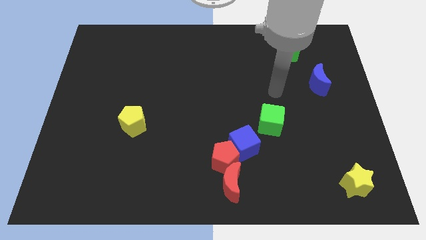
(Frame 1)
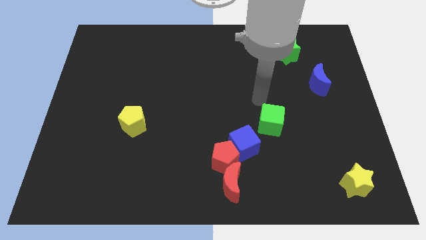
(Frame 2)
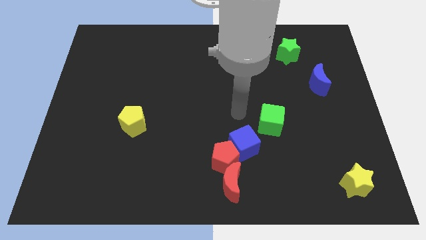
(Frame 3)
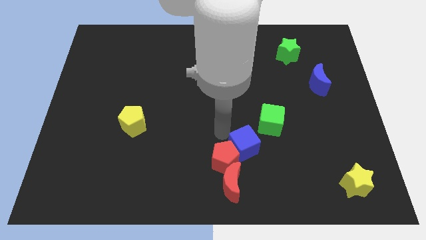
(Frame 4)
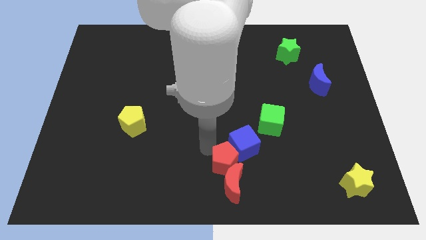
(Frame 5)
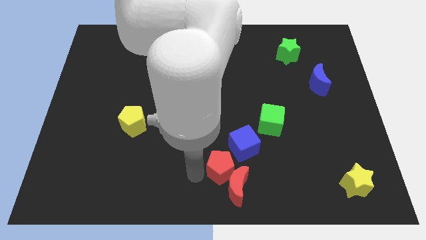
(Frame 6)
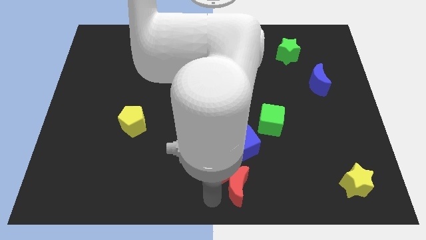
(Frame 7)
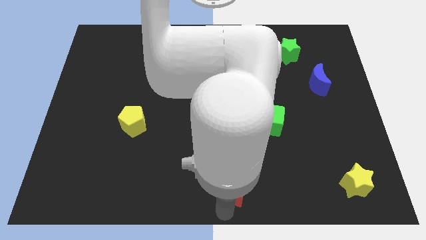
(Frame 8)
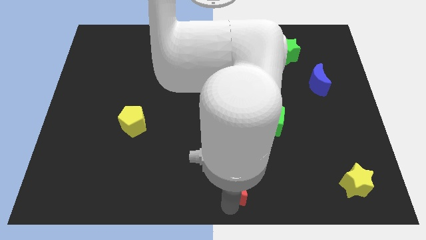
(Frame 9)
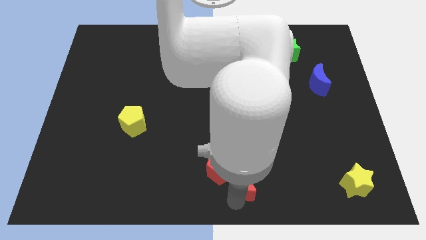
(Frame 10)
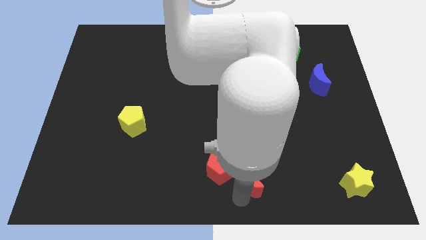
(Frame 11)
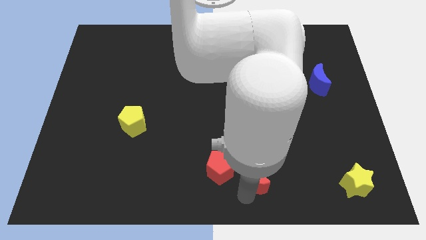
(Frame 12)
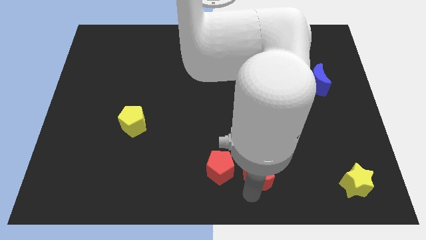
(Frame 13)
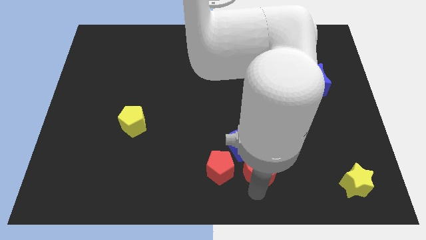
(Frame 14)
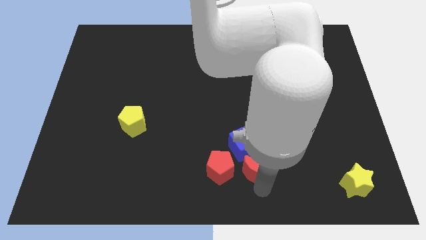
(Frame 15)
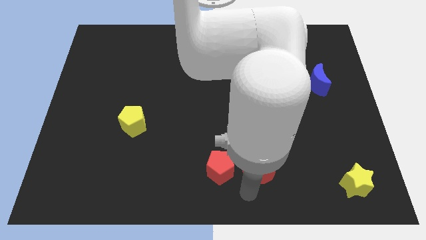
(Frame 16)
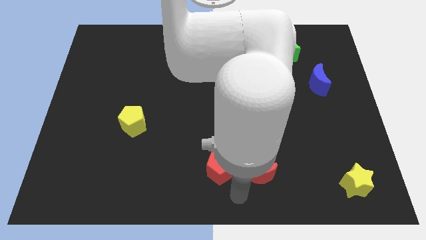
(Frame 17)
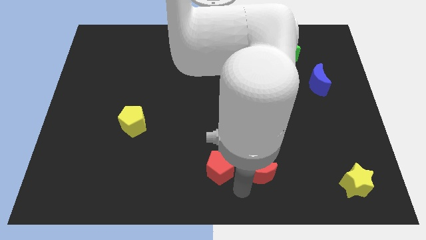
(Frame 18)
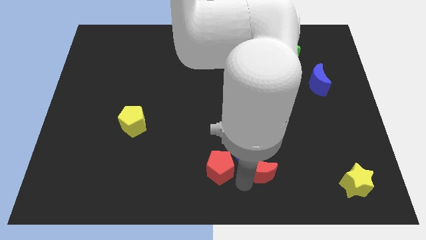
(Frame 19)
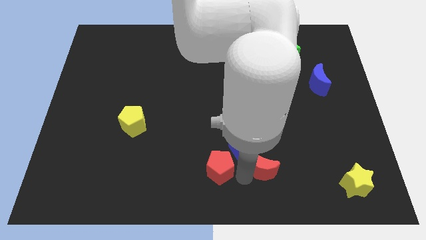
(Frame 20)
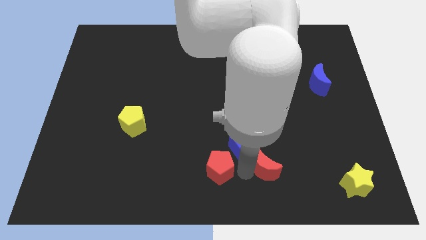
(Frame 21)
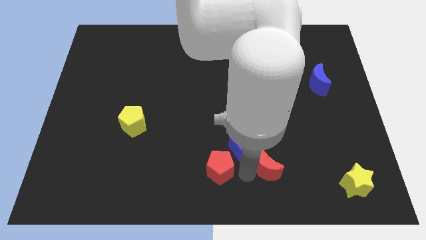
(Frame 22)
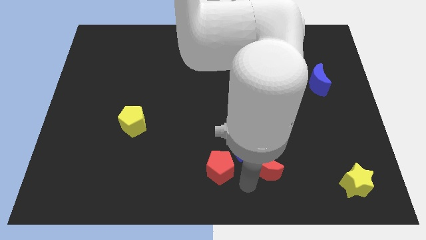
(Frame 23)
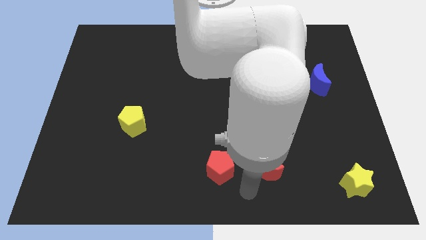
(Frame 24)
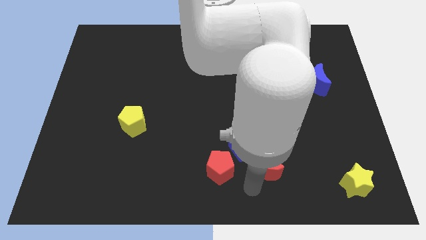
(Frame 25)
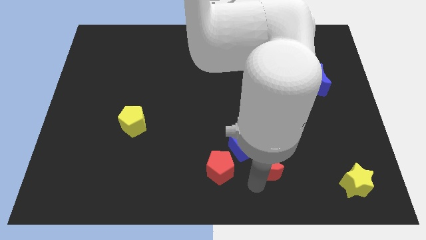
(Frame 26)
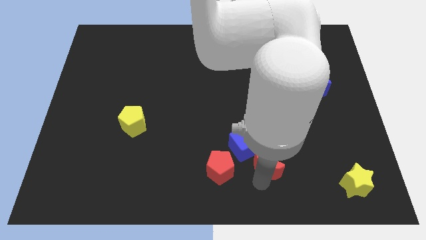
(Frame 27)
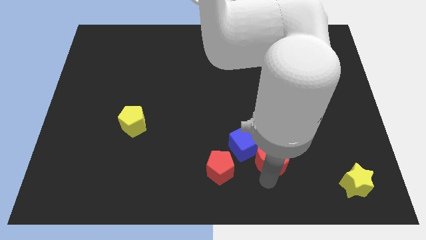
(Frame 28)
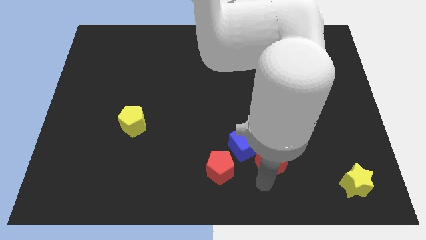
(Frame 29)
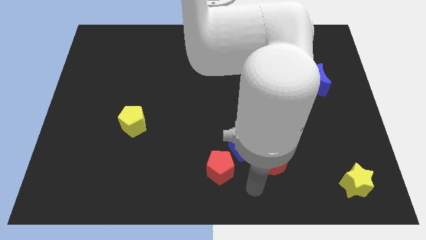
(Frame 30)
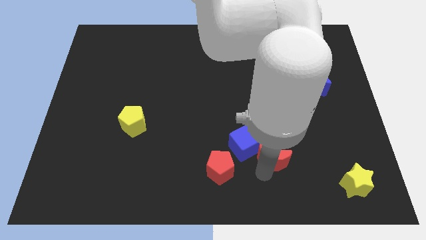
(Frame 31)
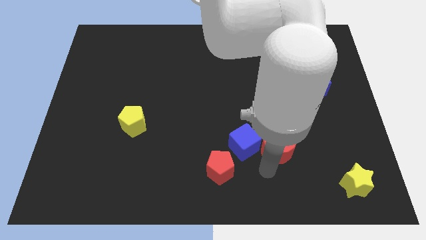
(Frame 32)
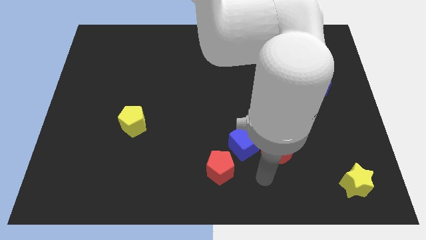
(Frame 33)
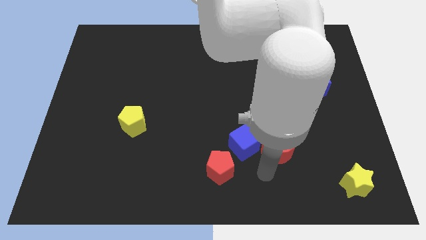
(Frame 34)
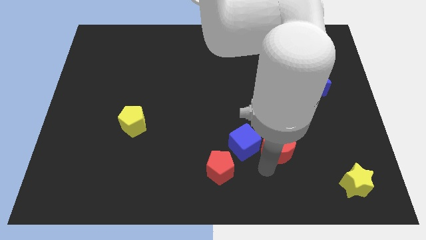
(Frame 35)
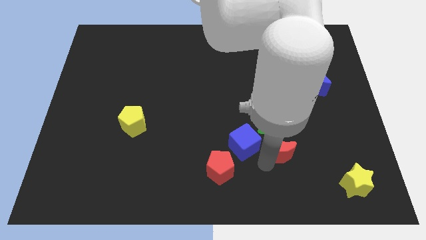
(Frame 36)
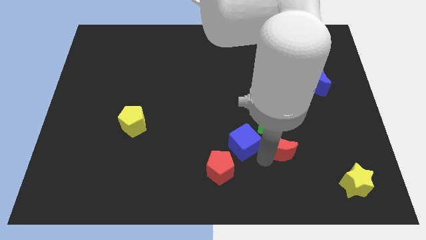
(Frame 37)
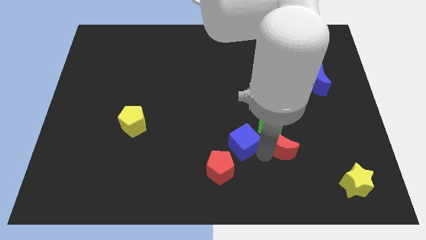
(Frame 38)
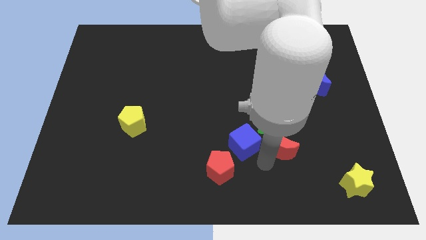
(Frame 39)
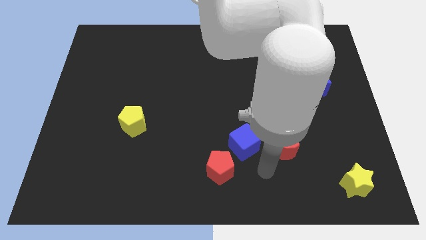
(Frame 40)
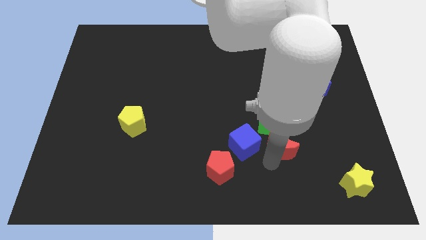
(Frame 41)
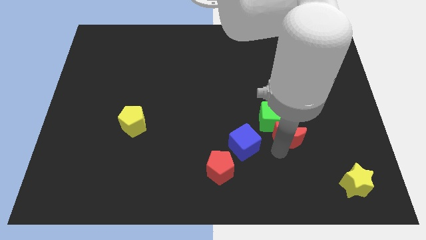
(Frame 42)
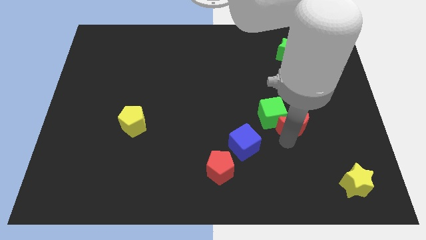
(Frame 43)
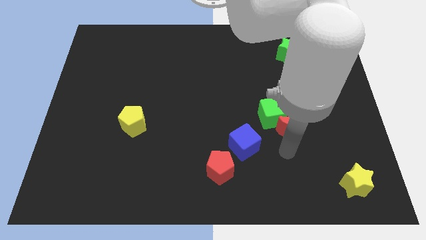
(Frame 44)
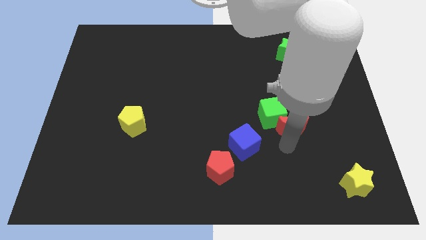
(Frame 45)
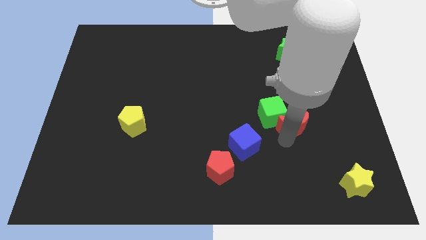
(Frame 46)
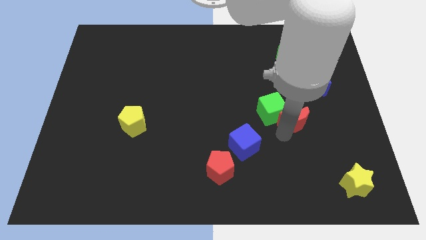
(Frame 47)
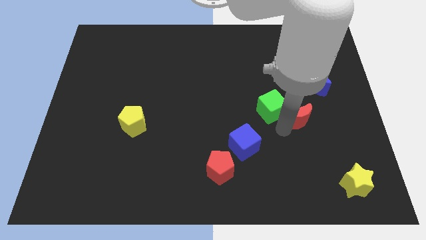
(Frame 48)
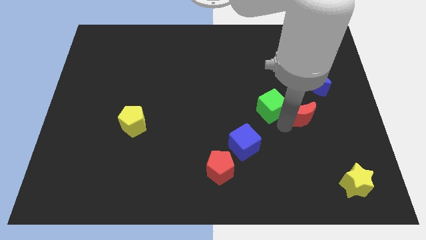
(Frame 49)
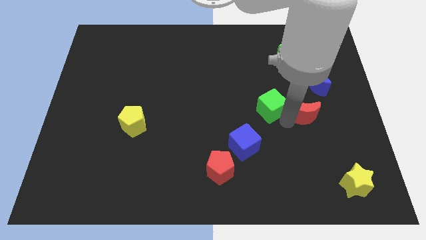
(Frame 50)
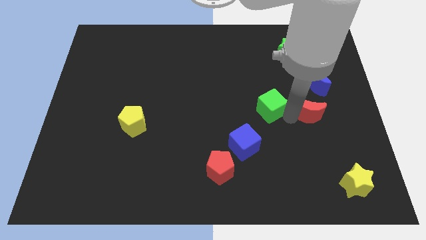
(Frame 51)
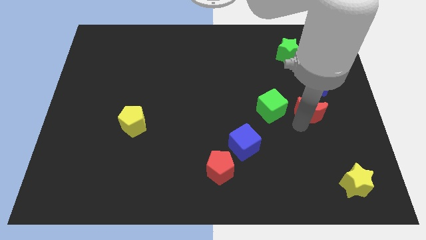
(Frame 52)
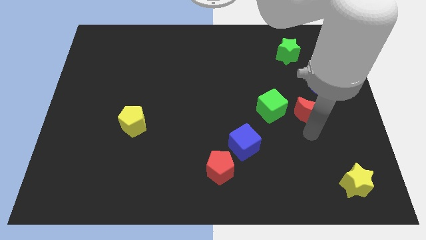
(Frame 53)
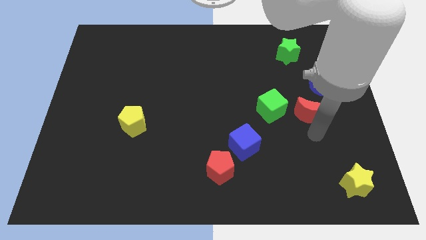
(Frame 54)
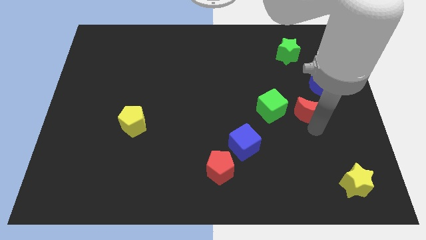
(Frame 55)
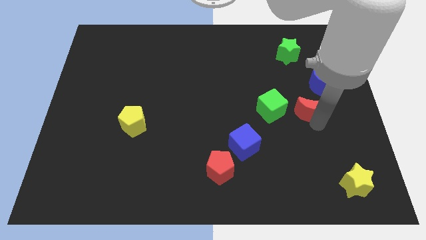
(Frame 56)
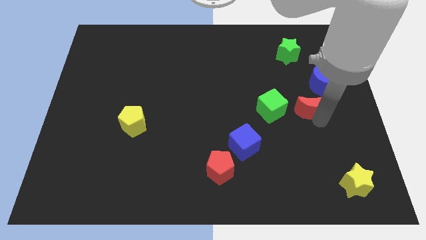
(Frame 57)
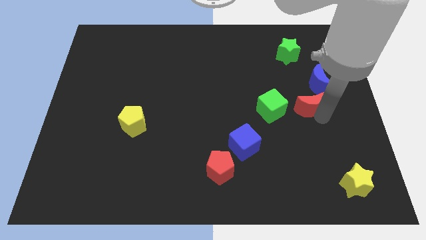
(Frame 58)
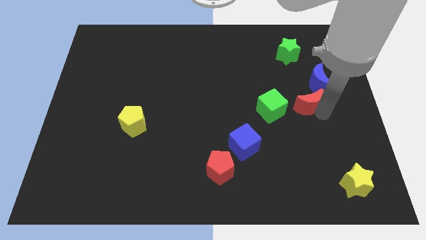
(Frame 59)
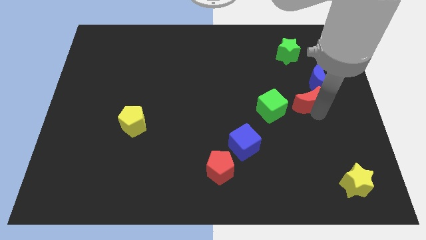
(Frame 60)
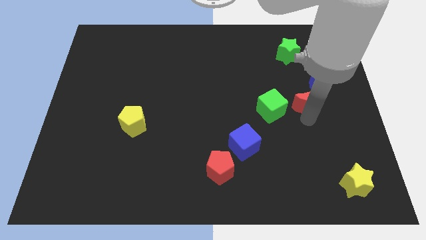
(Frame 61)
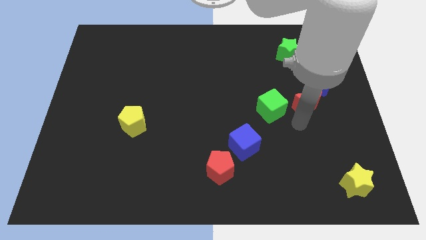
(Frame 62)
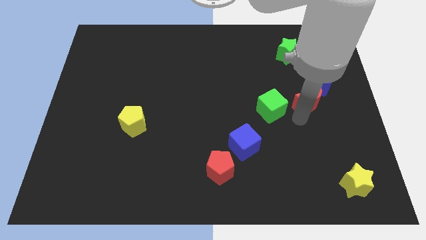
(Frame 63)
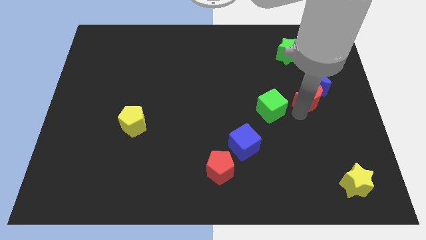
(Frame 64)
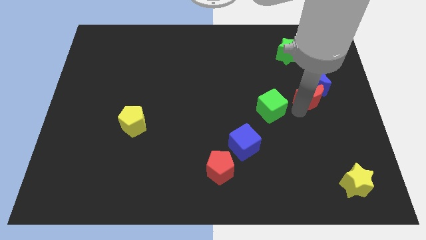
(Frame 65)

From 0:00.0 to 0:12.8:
put the red moon next to the blue moon
